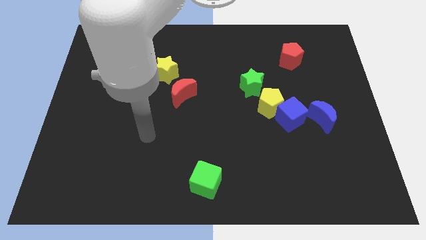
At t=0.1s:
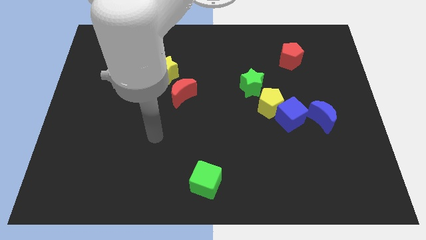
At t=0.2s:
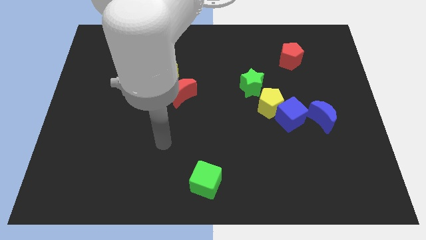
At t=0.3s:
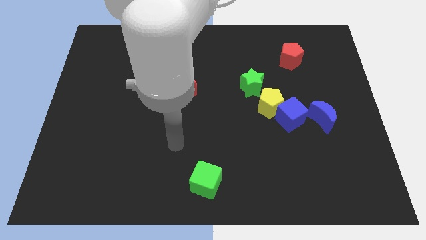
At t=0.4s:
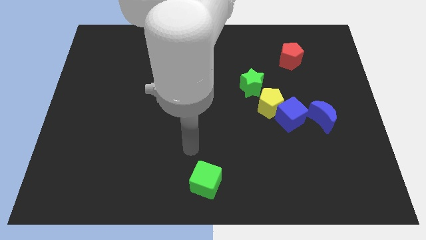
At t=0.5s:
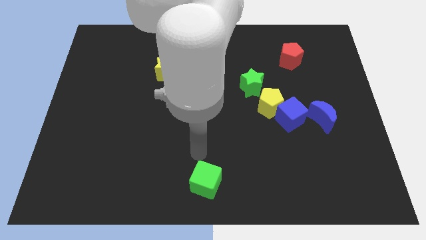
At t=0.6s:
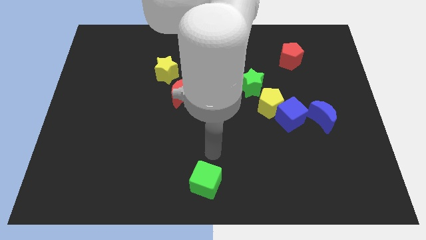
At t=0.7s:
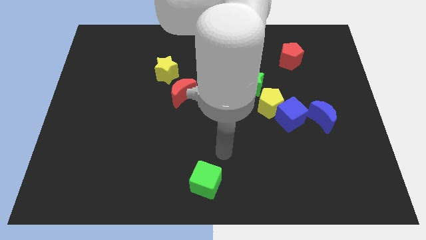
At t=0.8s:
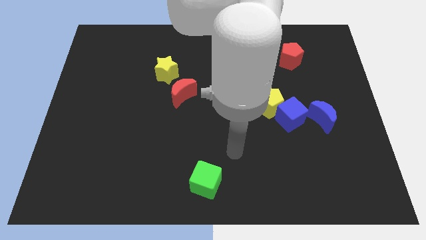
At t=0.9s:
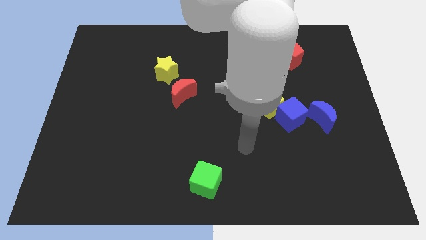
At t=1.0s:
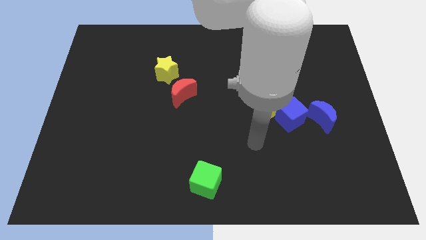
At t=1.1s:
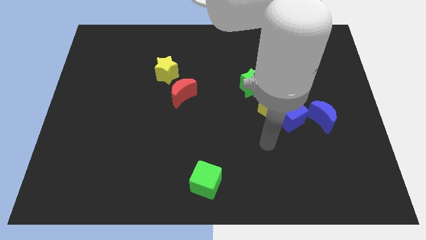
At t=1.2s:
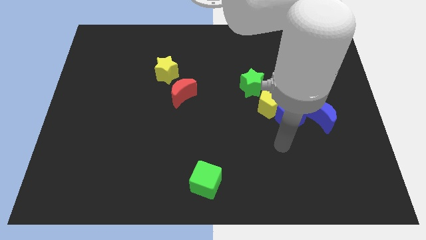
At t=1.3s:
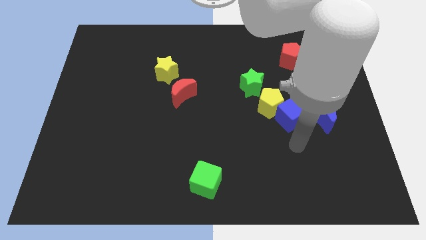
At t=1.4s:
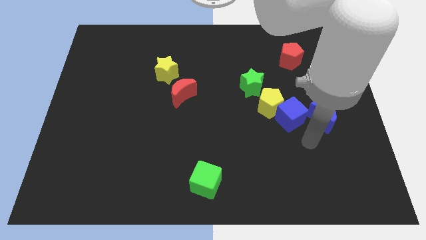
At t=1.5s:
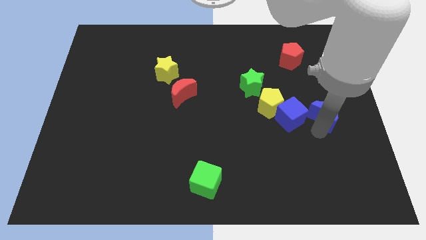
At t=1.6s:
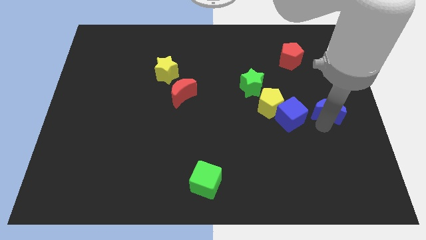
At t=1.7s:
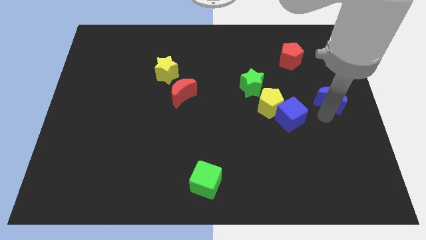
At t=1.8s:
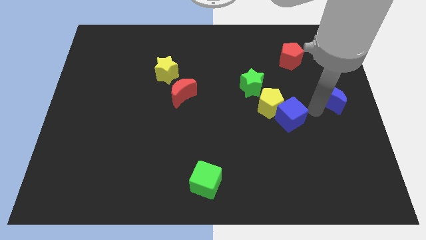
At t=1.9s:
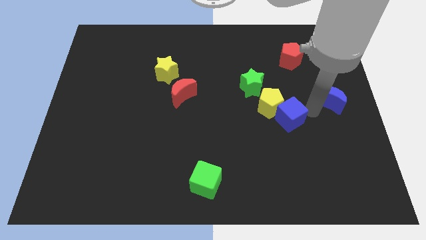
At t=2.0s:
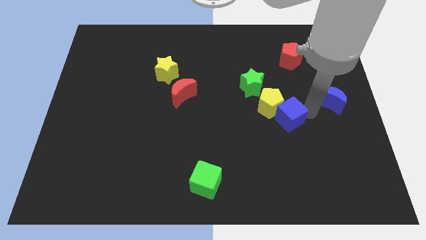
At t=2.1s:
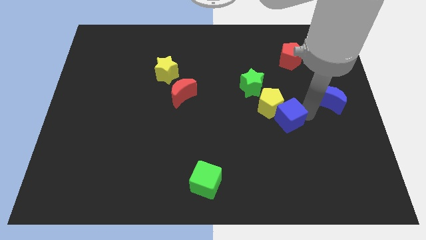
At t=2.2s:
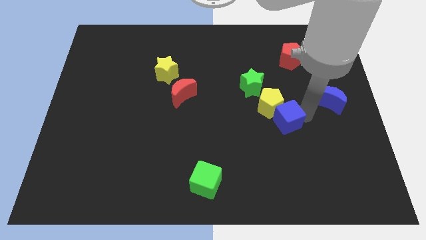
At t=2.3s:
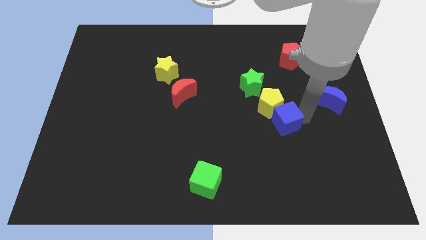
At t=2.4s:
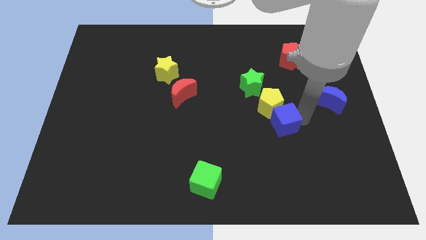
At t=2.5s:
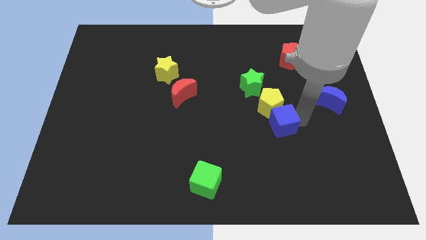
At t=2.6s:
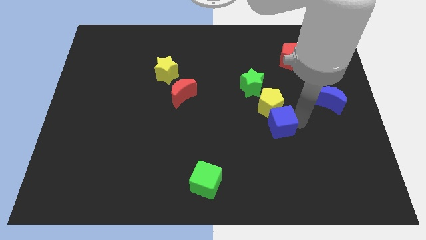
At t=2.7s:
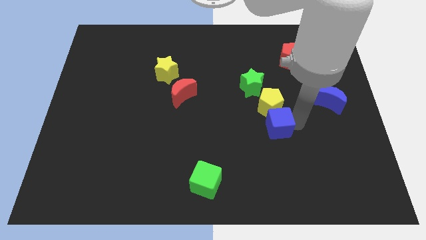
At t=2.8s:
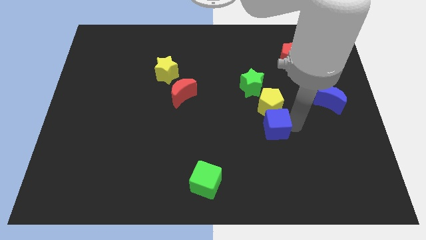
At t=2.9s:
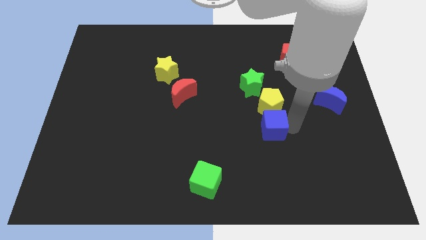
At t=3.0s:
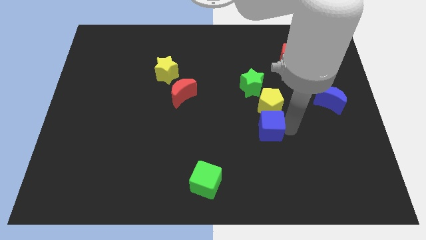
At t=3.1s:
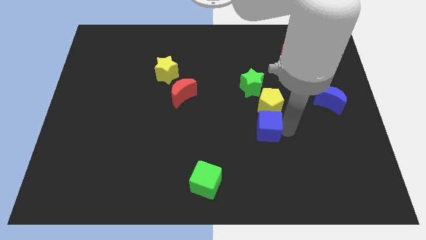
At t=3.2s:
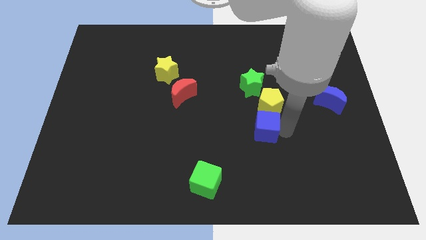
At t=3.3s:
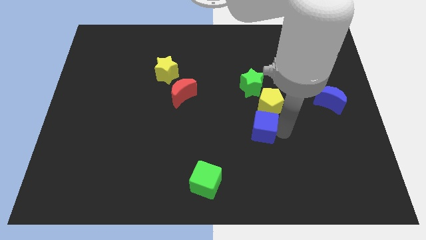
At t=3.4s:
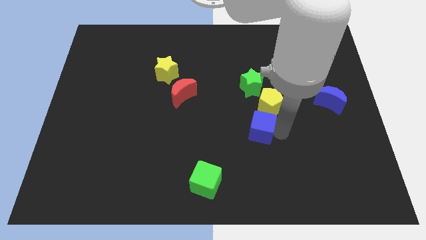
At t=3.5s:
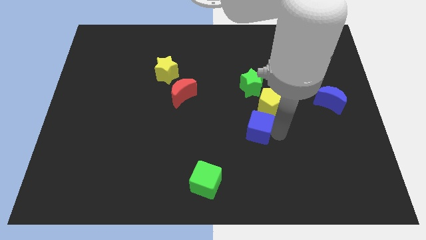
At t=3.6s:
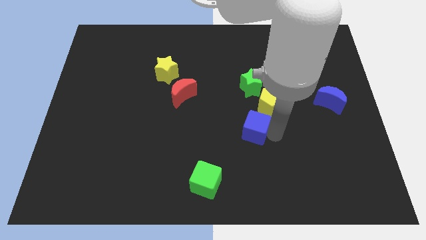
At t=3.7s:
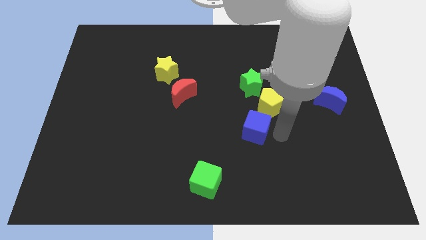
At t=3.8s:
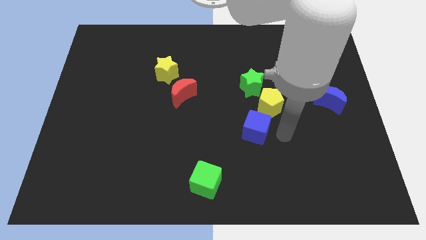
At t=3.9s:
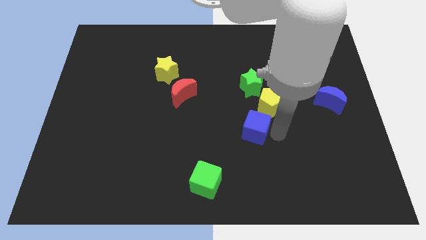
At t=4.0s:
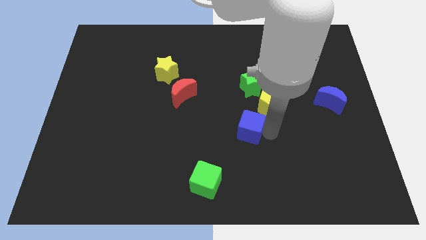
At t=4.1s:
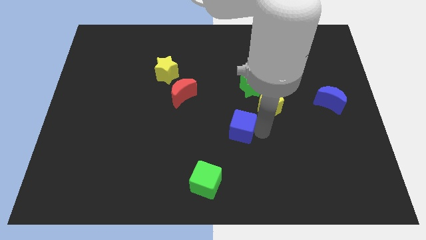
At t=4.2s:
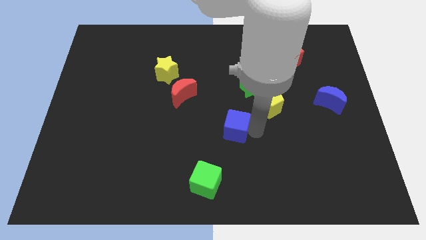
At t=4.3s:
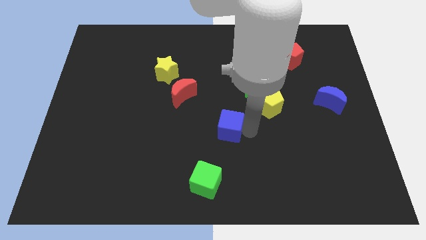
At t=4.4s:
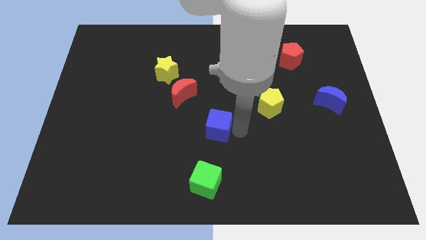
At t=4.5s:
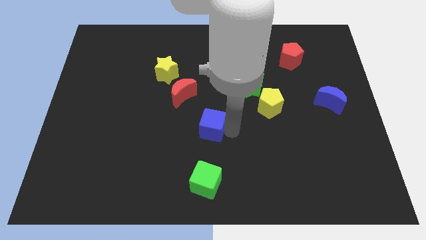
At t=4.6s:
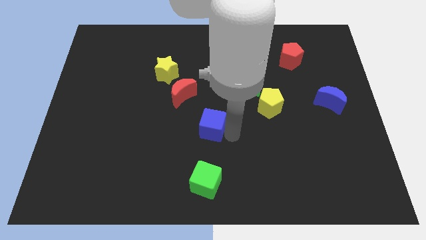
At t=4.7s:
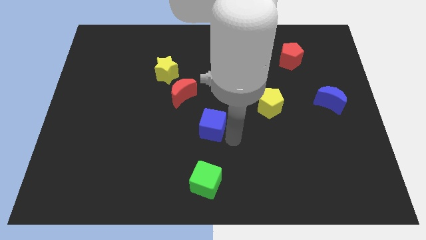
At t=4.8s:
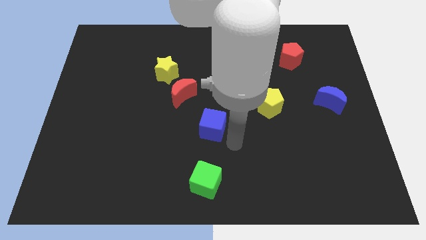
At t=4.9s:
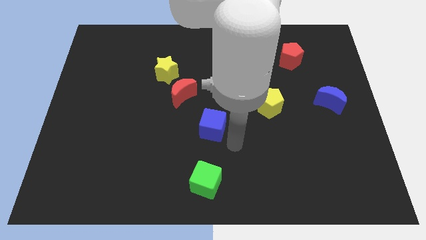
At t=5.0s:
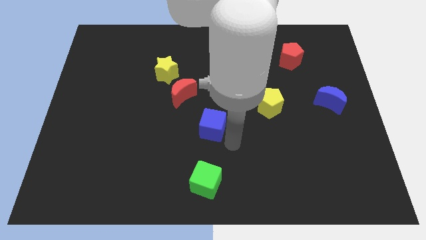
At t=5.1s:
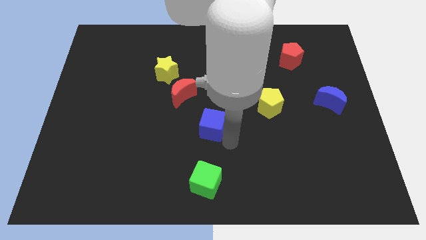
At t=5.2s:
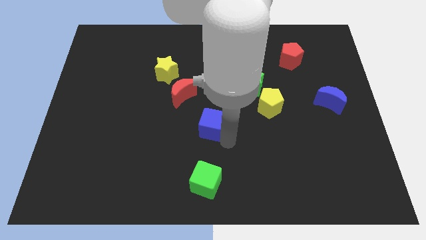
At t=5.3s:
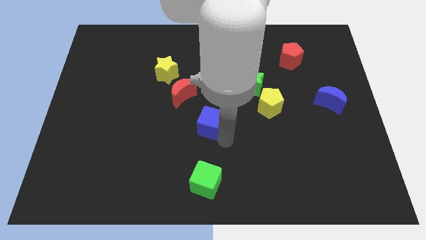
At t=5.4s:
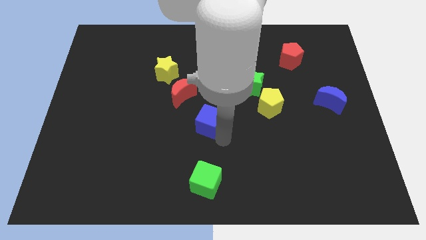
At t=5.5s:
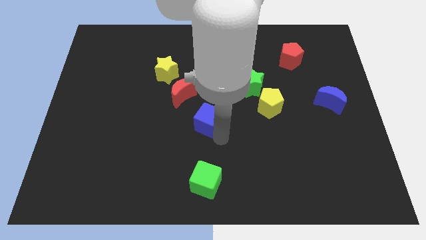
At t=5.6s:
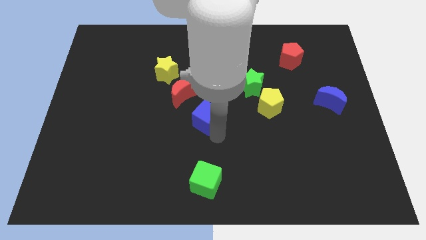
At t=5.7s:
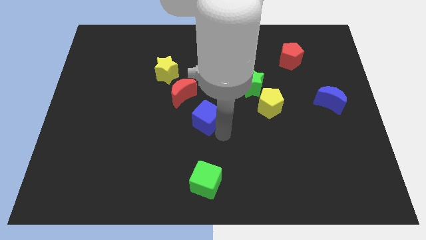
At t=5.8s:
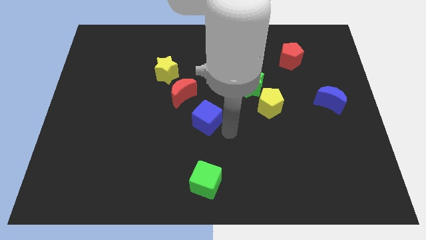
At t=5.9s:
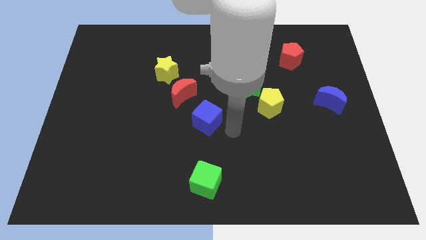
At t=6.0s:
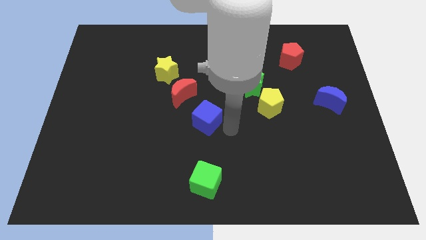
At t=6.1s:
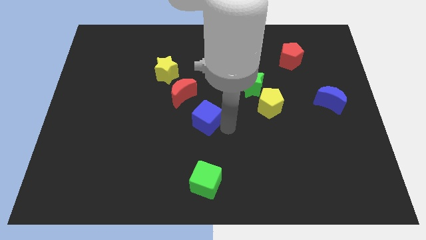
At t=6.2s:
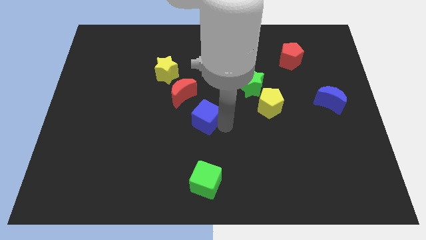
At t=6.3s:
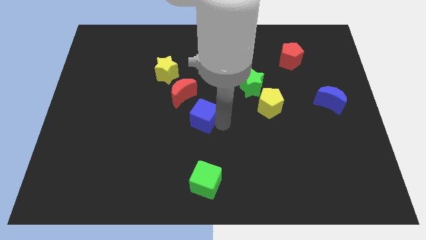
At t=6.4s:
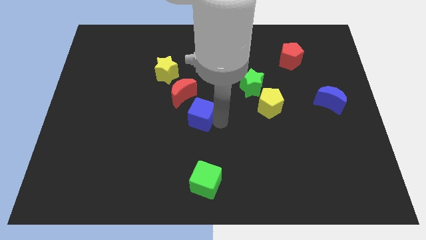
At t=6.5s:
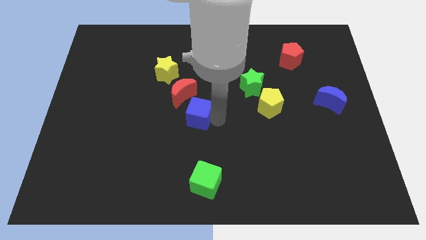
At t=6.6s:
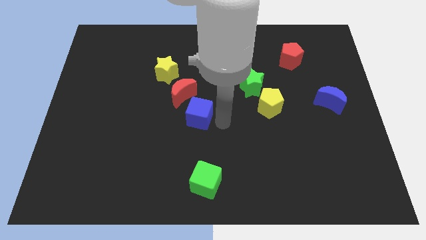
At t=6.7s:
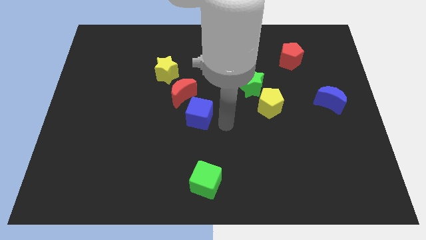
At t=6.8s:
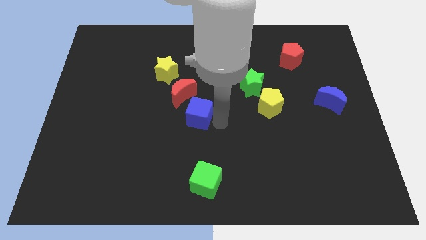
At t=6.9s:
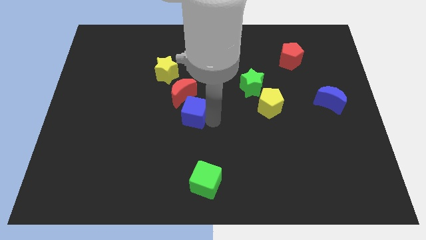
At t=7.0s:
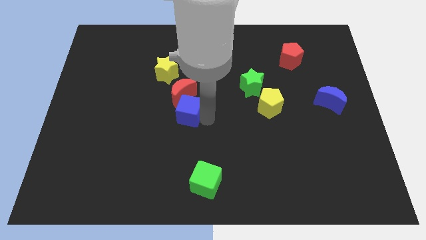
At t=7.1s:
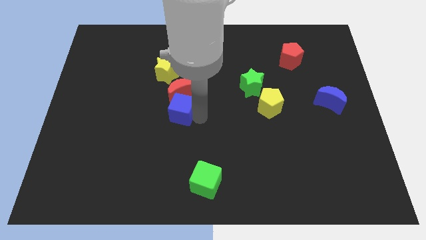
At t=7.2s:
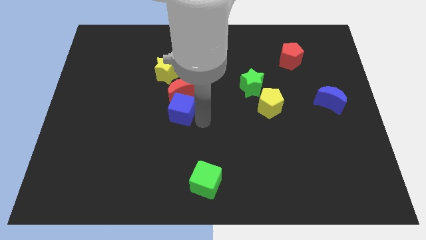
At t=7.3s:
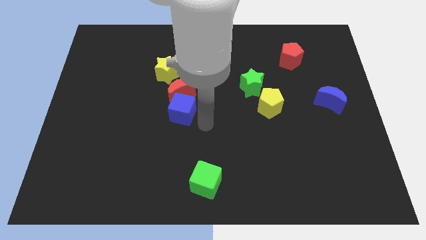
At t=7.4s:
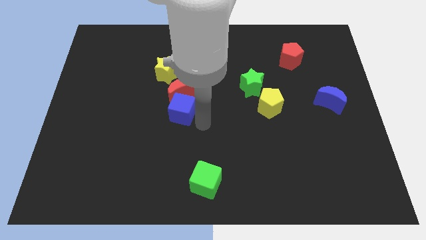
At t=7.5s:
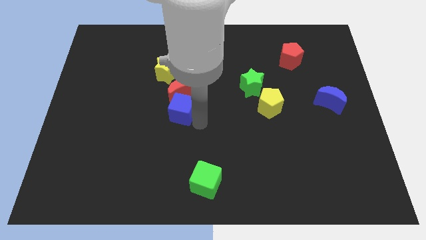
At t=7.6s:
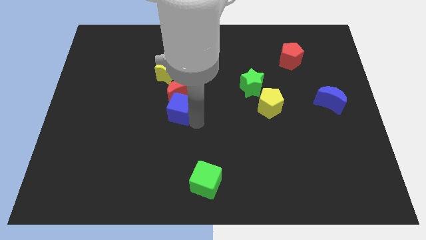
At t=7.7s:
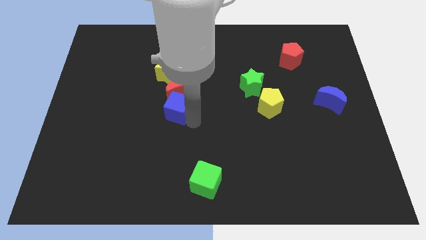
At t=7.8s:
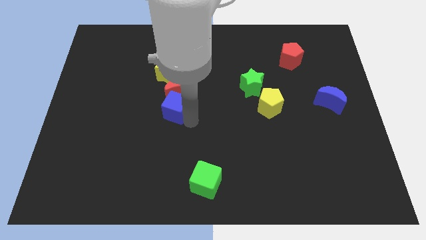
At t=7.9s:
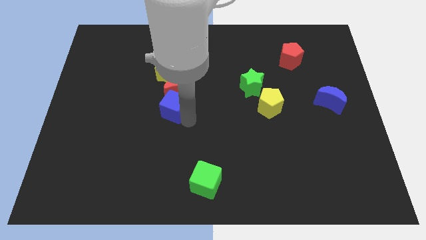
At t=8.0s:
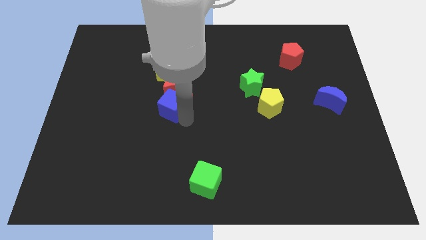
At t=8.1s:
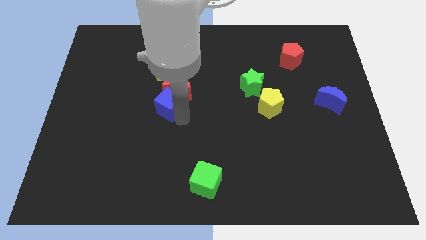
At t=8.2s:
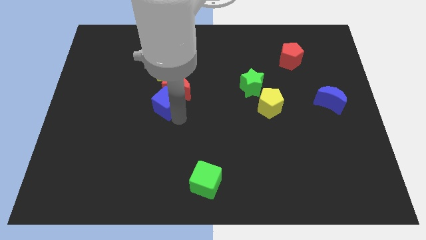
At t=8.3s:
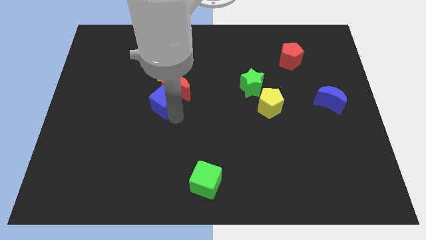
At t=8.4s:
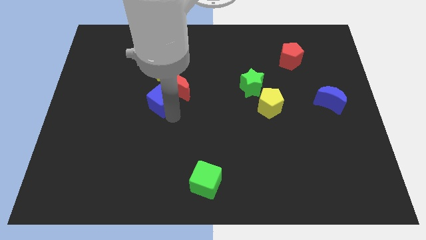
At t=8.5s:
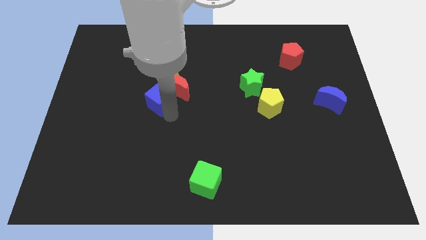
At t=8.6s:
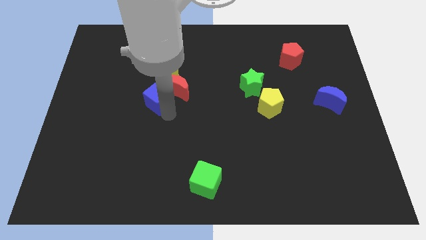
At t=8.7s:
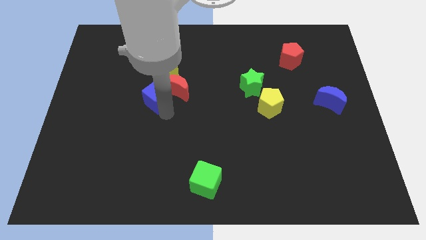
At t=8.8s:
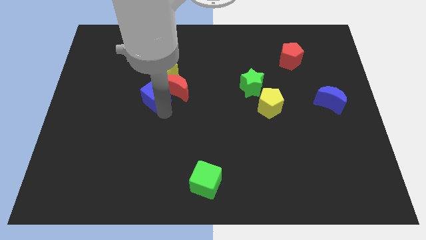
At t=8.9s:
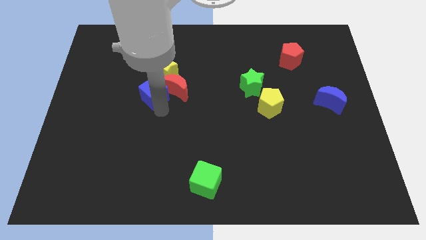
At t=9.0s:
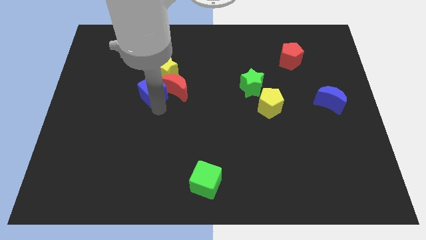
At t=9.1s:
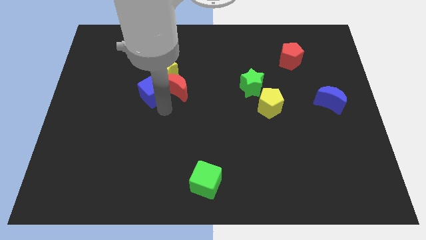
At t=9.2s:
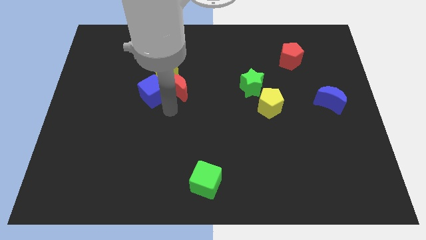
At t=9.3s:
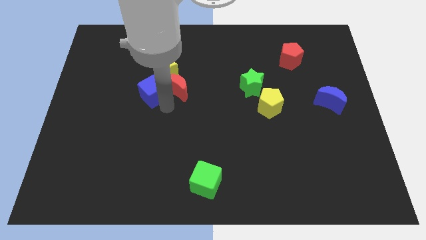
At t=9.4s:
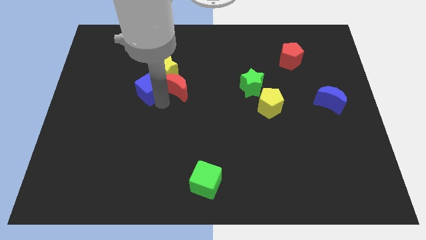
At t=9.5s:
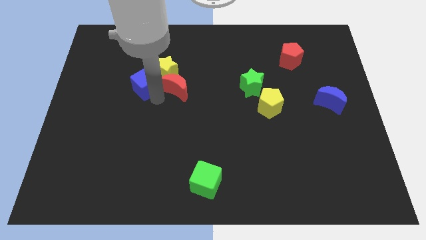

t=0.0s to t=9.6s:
move the blue cube to the left side of the yellow star
